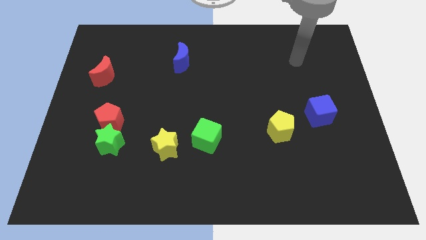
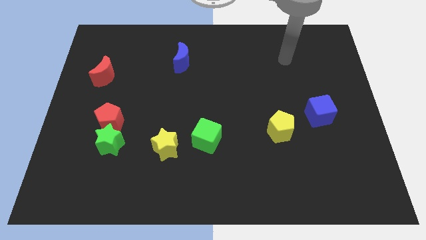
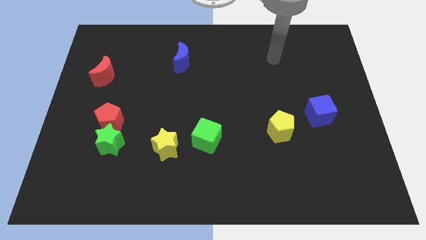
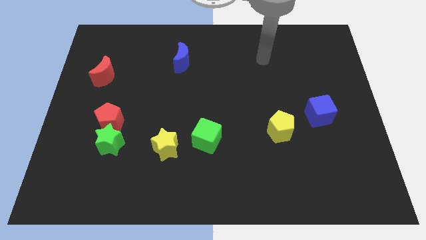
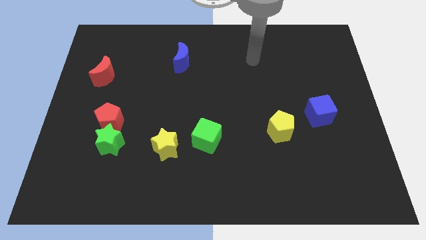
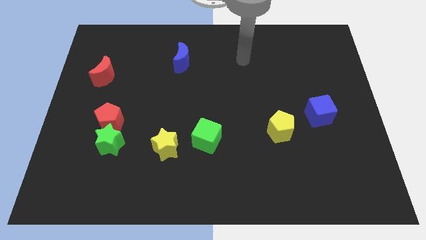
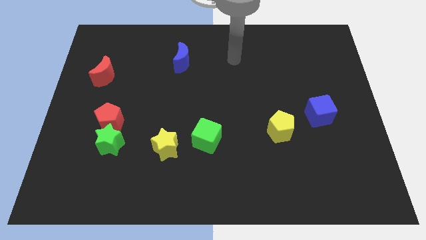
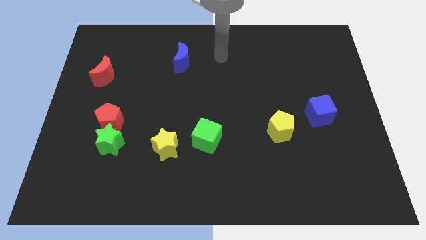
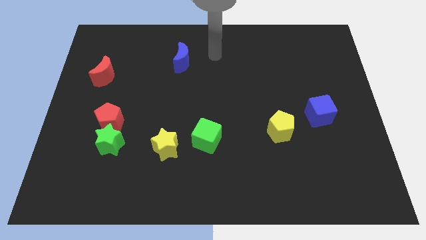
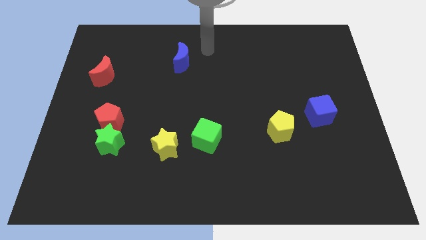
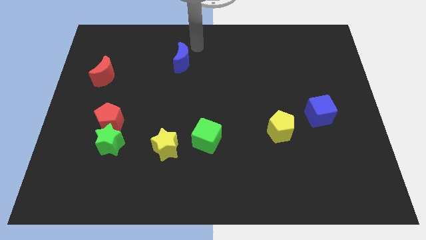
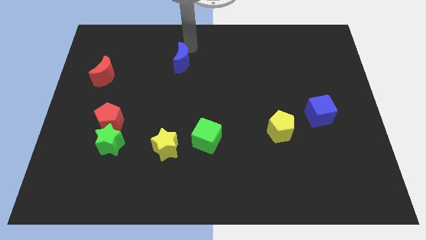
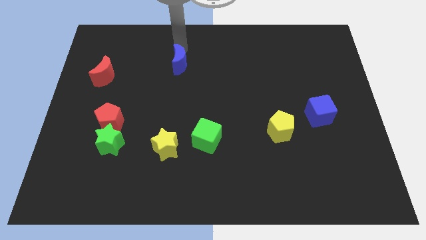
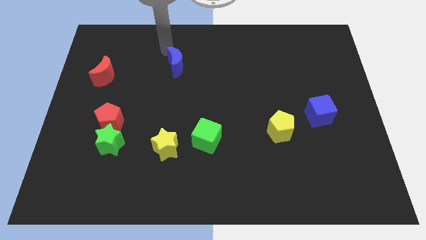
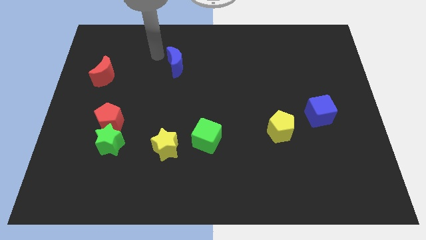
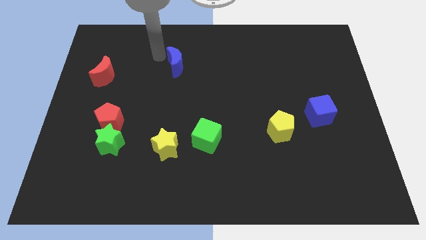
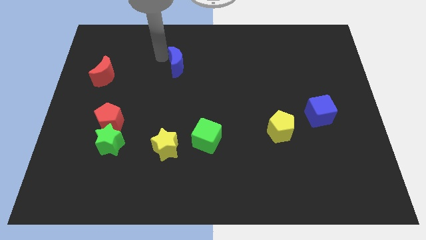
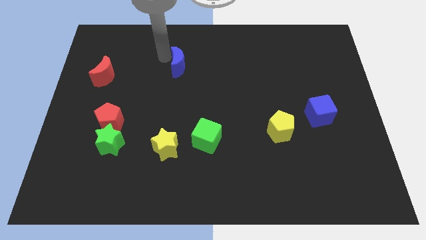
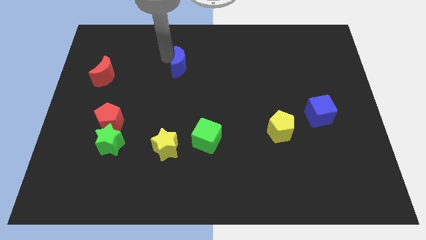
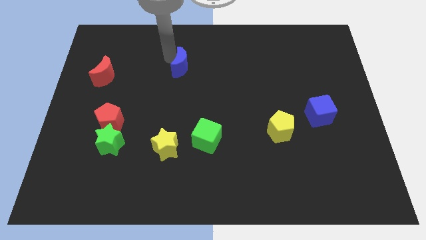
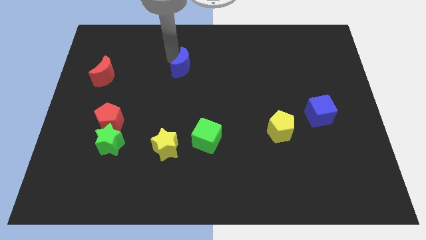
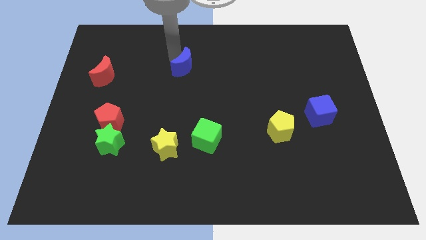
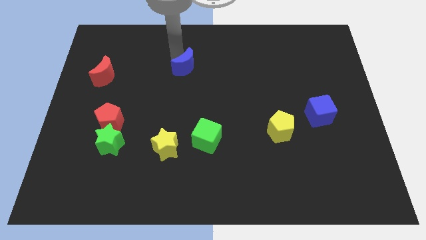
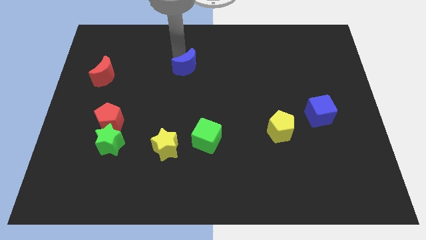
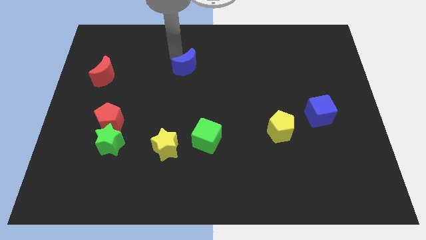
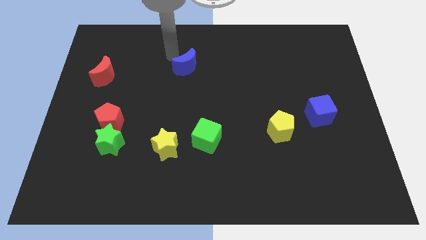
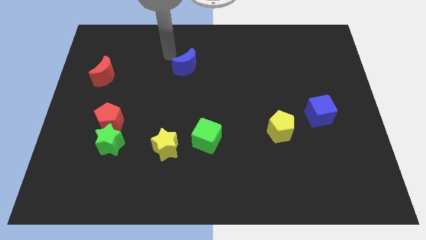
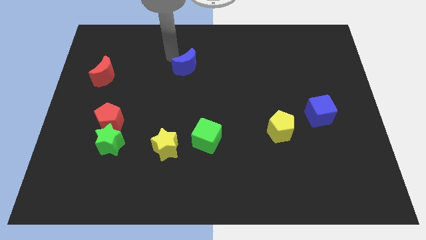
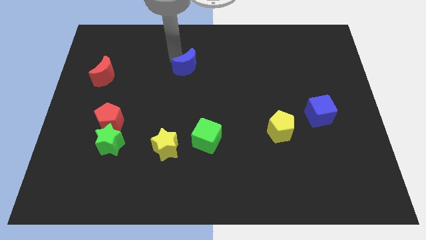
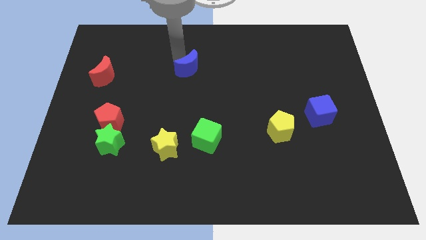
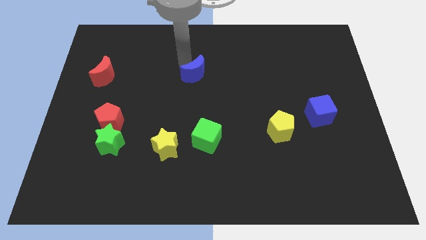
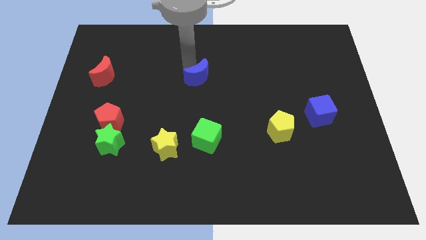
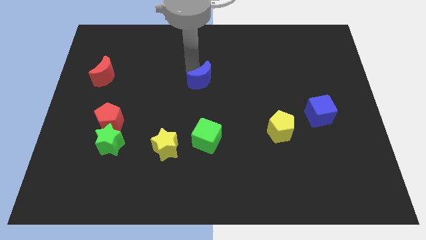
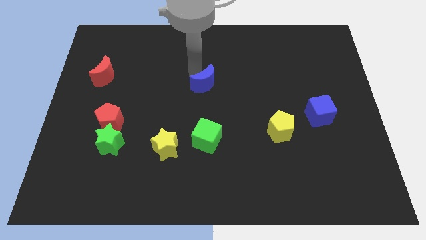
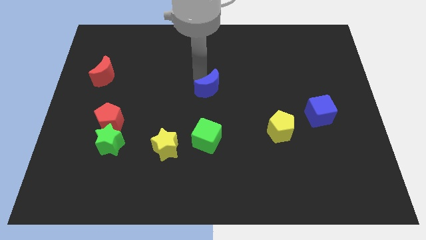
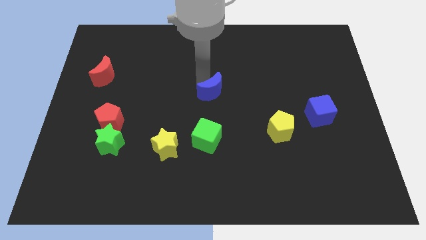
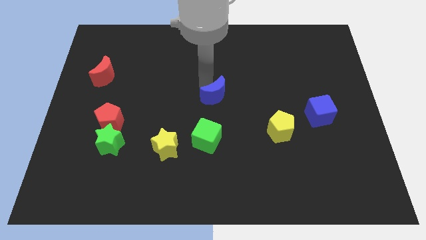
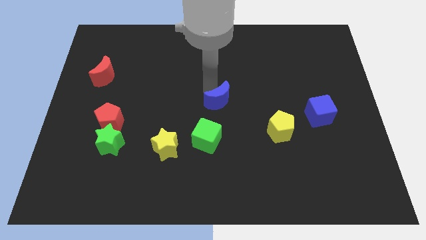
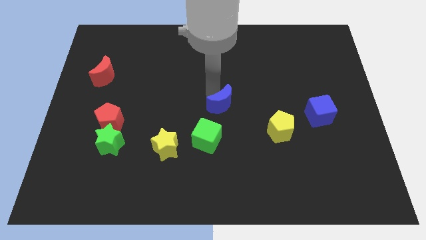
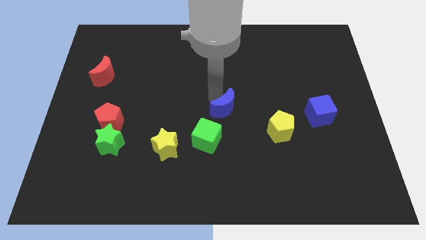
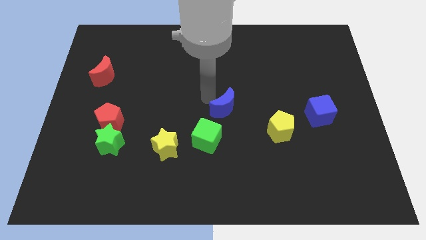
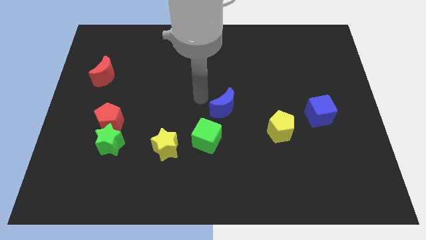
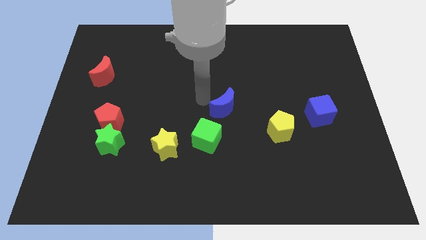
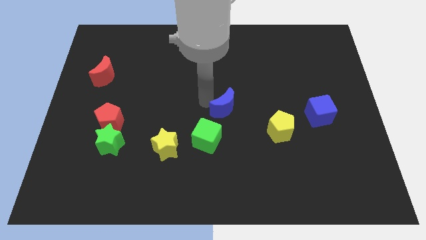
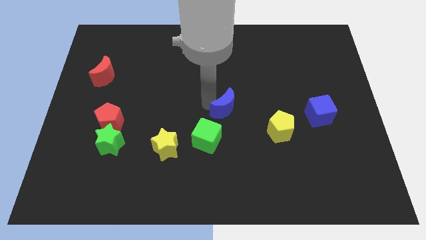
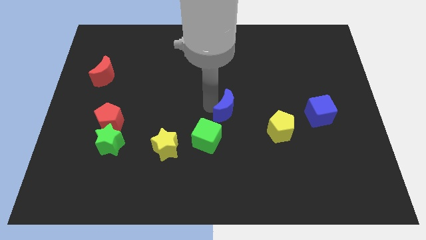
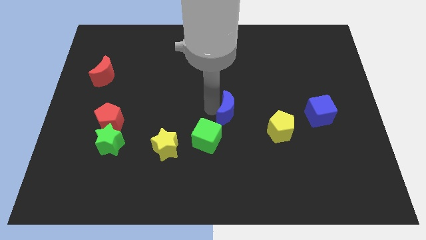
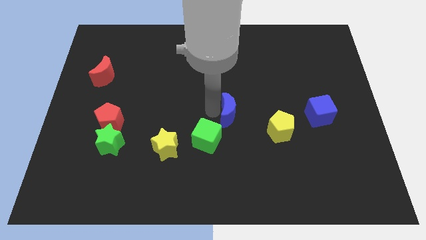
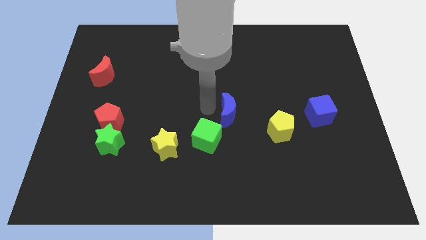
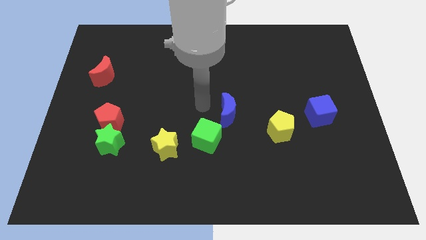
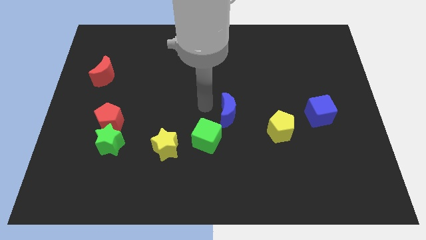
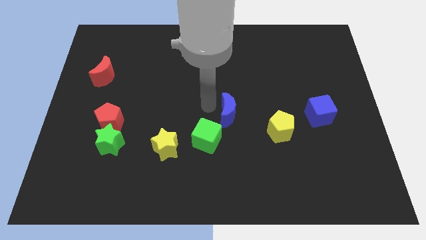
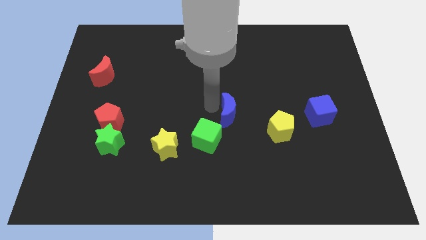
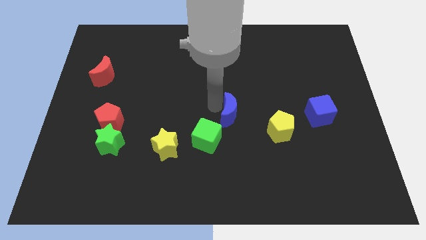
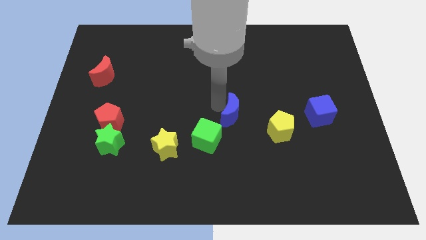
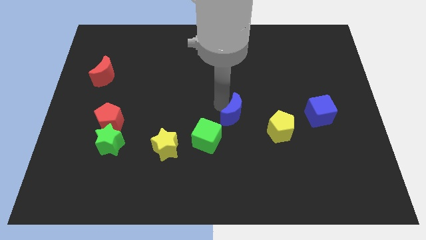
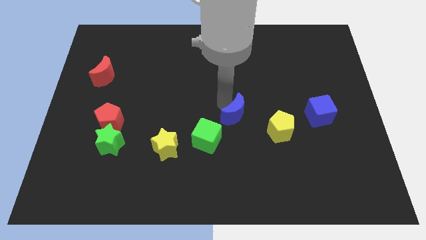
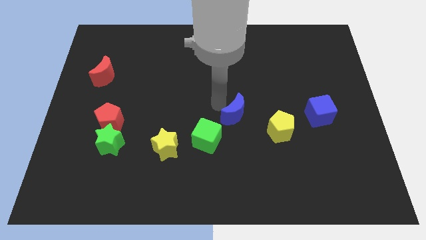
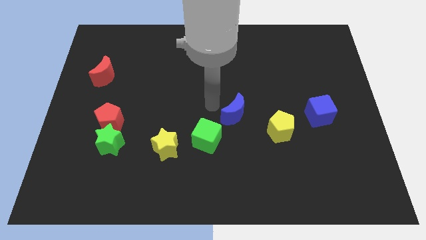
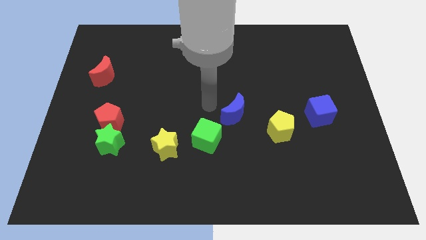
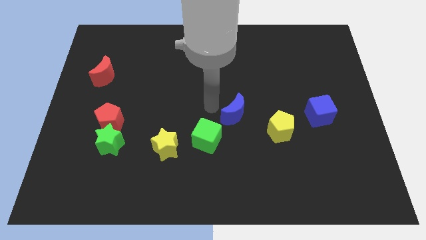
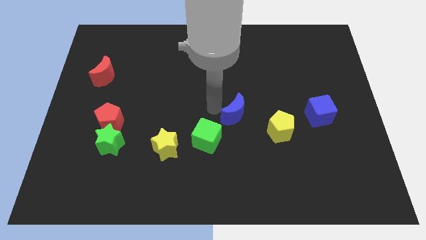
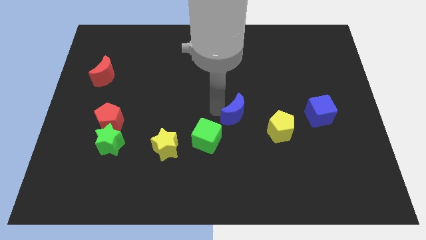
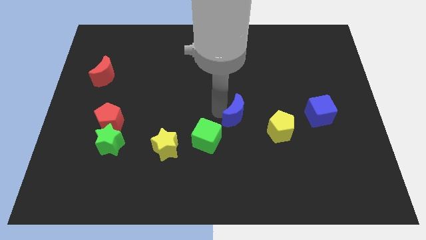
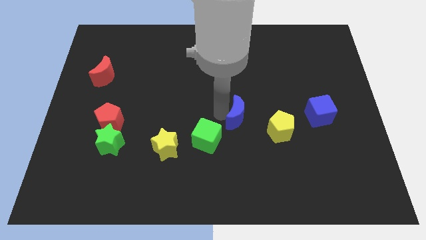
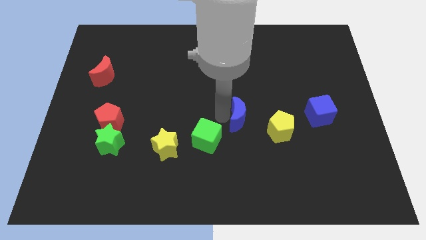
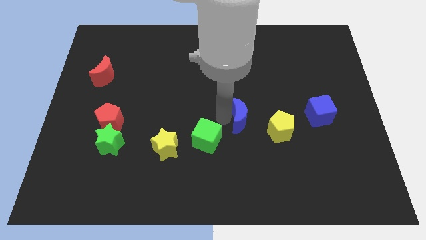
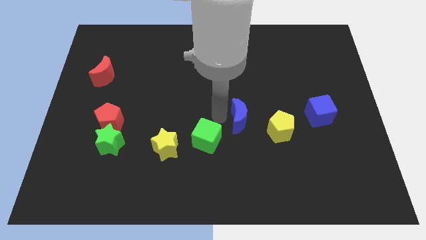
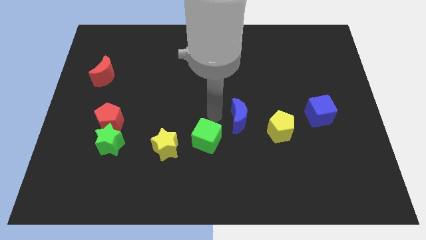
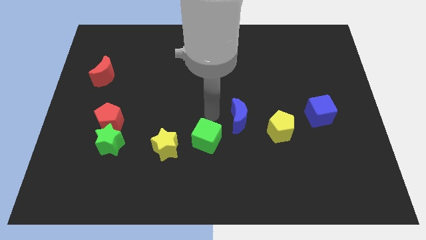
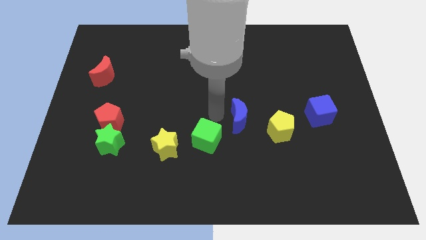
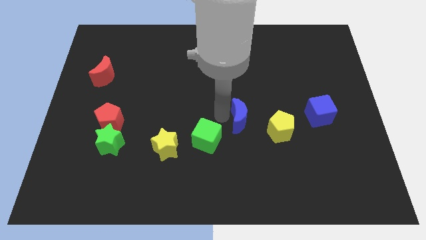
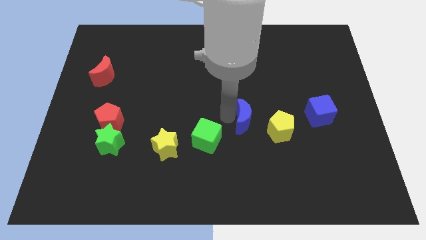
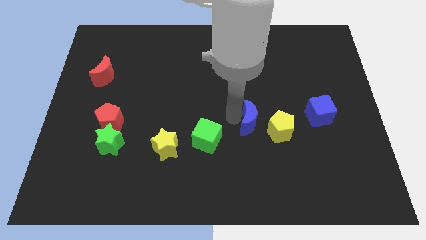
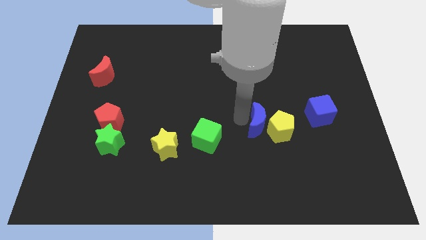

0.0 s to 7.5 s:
slide the blue moon close to the yellow pentagon

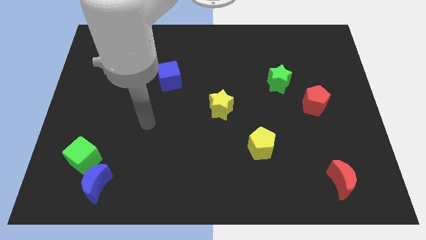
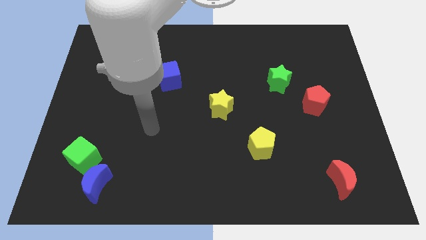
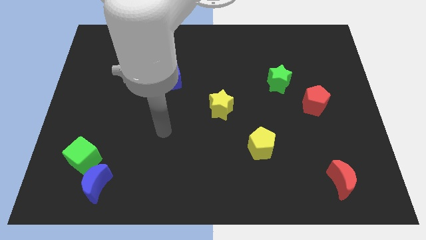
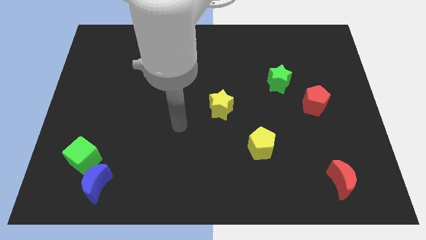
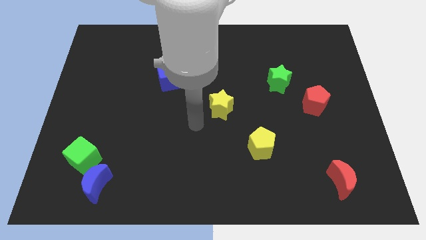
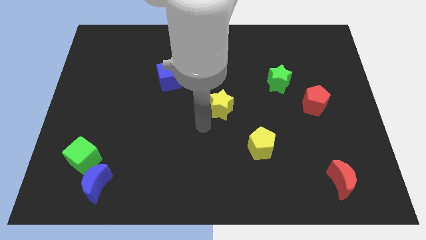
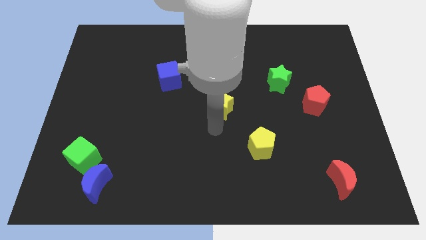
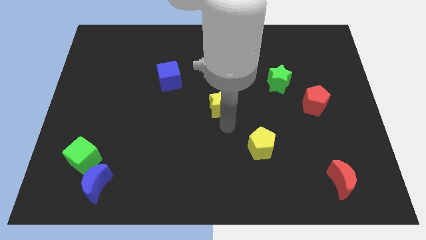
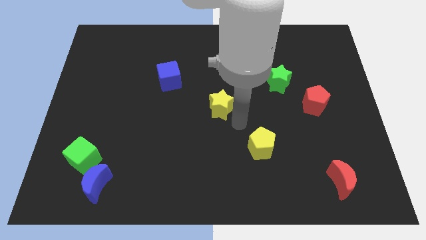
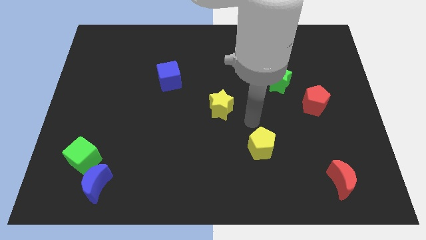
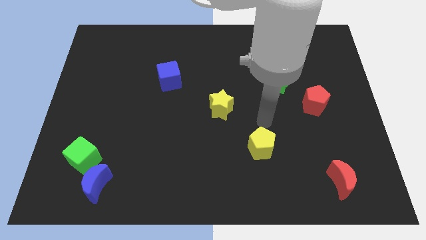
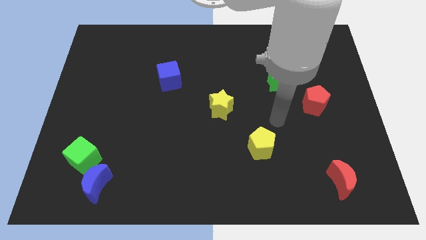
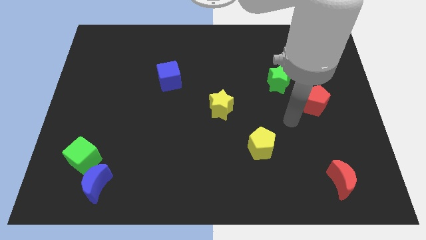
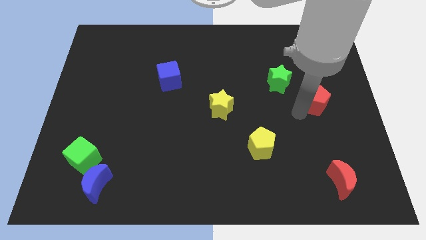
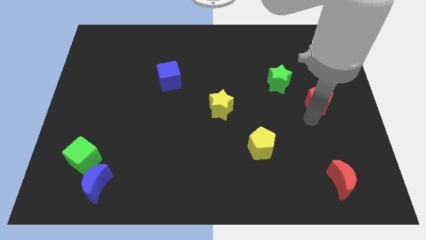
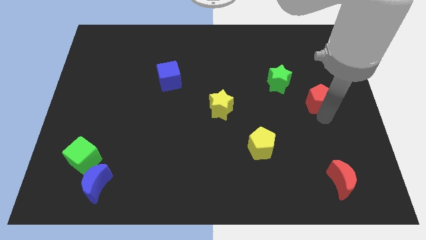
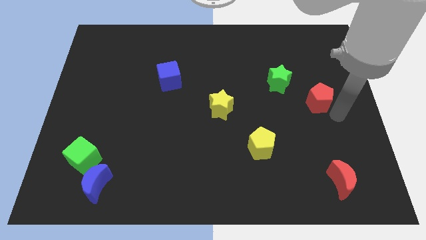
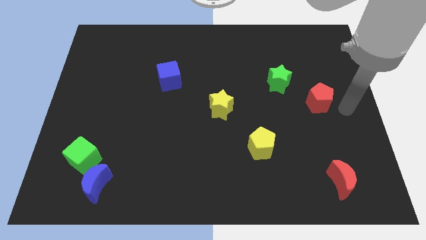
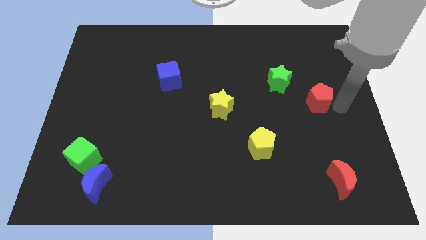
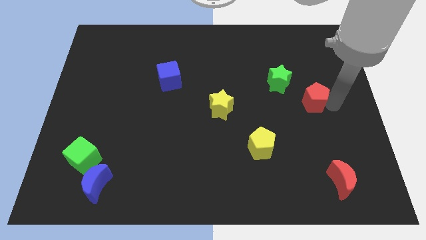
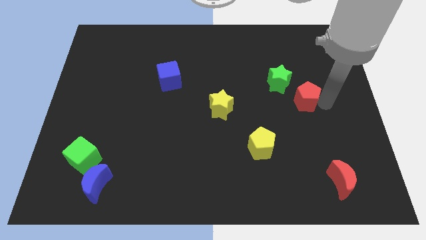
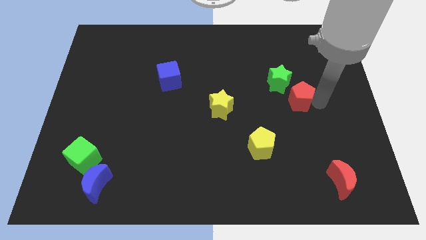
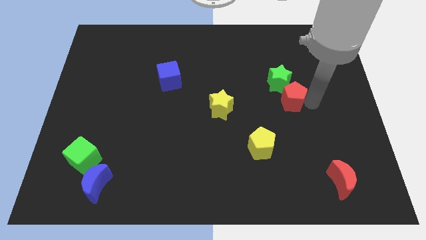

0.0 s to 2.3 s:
put the red pentagon towards the green star
